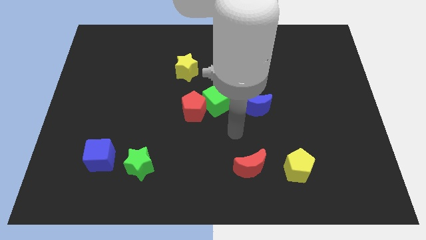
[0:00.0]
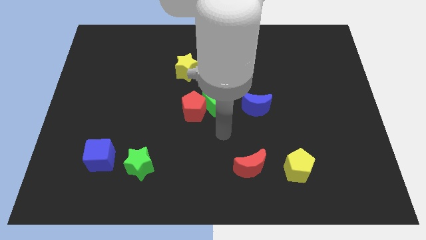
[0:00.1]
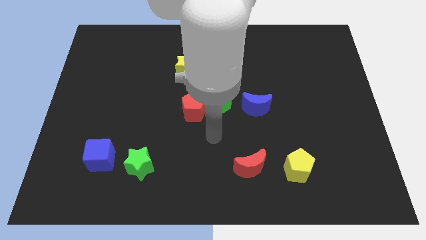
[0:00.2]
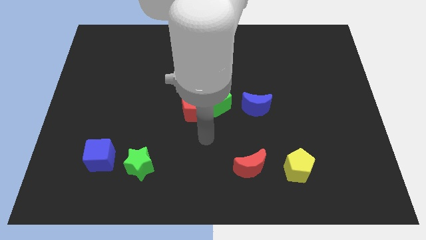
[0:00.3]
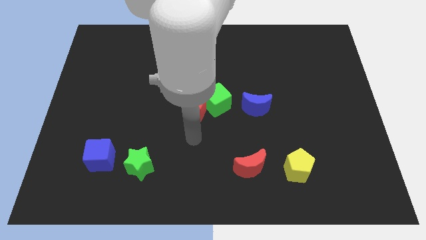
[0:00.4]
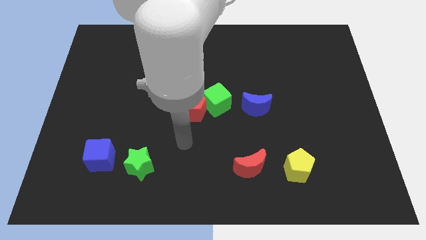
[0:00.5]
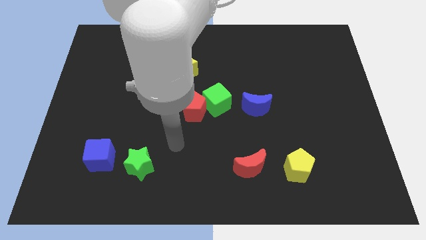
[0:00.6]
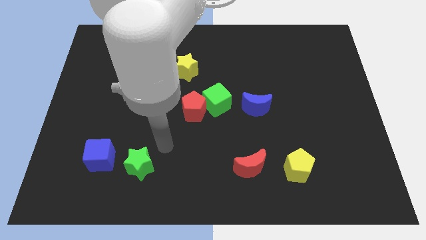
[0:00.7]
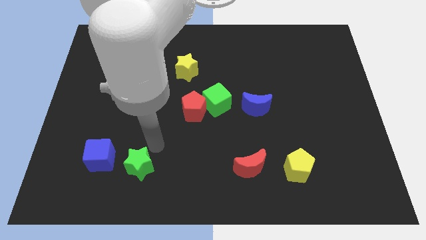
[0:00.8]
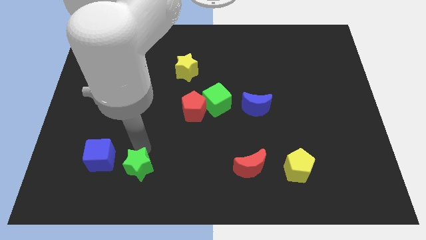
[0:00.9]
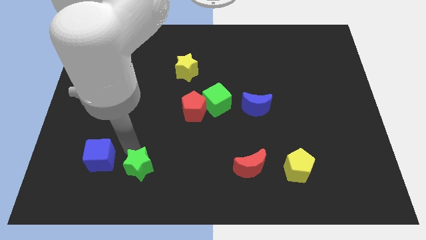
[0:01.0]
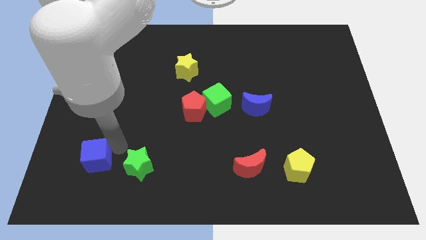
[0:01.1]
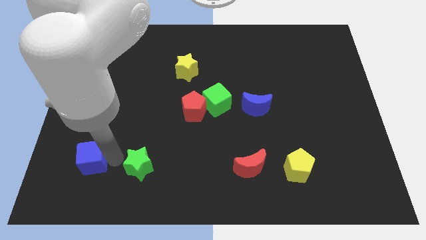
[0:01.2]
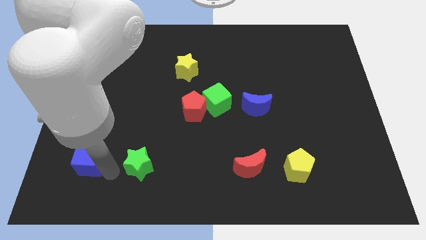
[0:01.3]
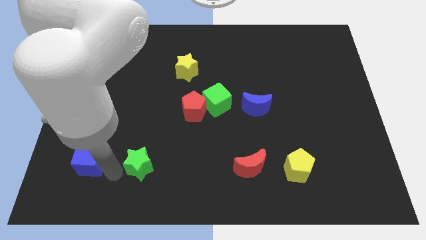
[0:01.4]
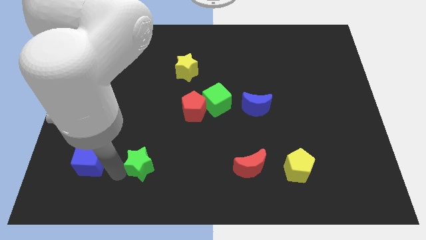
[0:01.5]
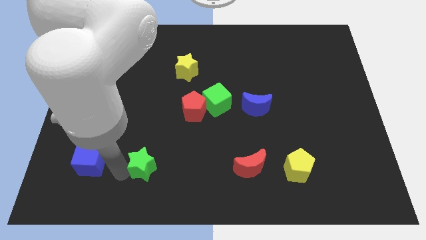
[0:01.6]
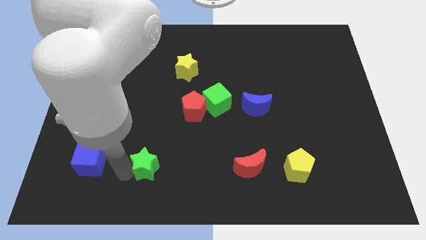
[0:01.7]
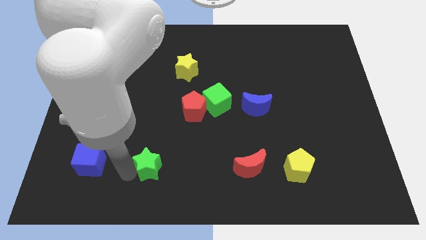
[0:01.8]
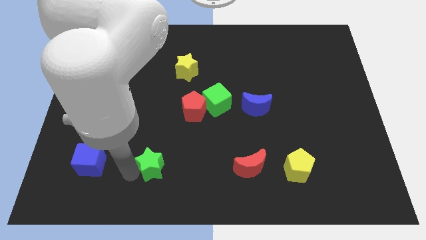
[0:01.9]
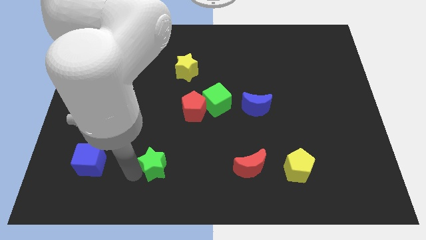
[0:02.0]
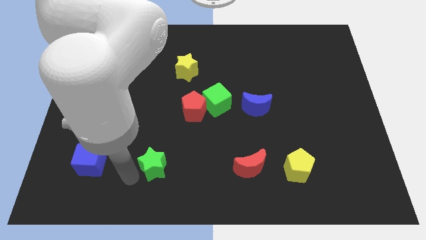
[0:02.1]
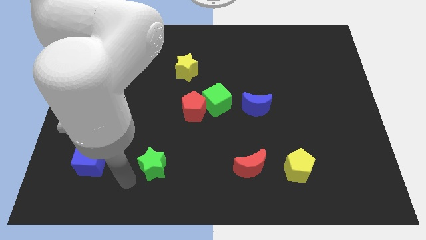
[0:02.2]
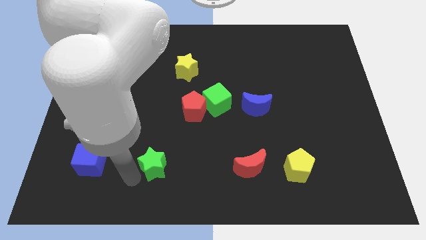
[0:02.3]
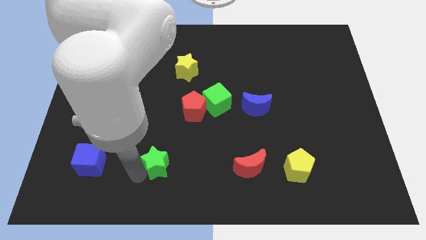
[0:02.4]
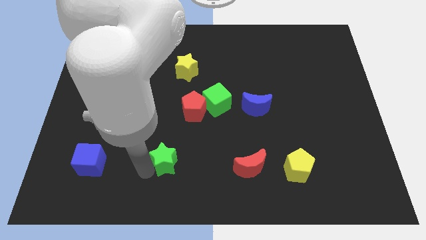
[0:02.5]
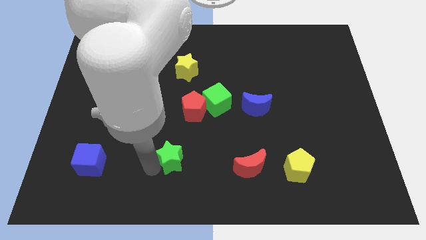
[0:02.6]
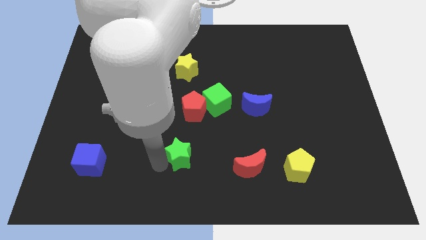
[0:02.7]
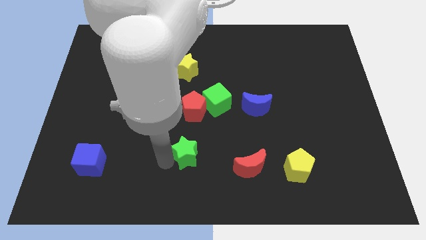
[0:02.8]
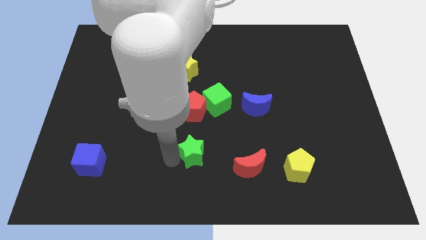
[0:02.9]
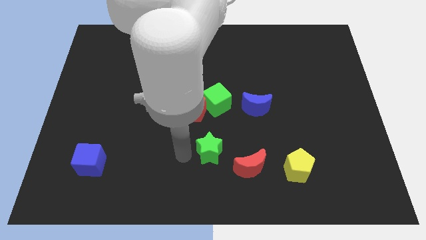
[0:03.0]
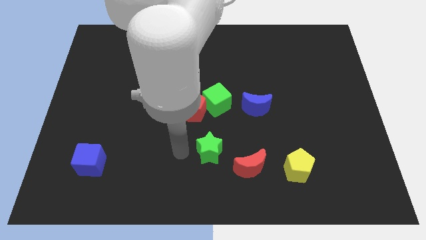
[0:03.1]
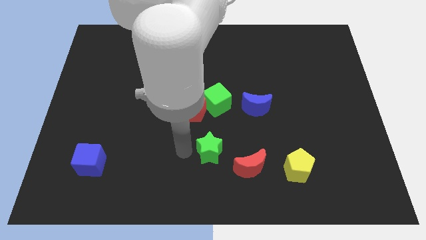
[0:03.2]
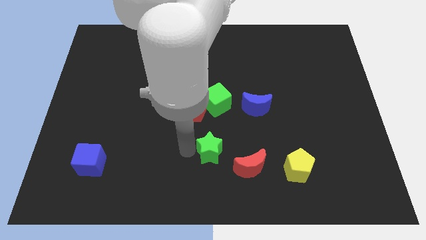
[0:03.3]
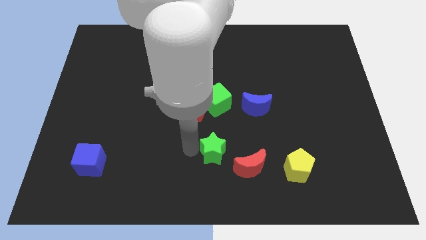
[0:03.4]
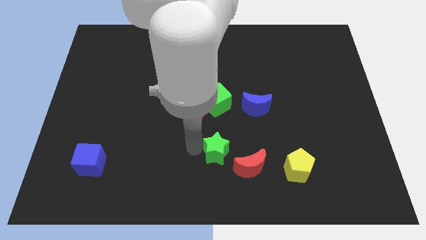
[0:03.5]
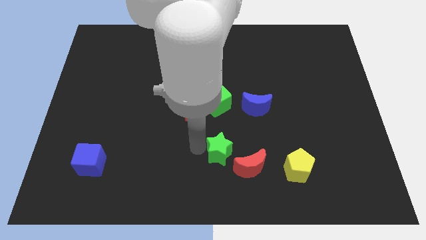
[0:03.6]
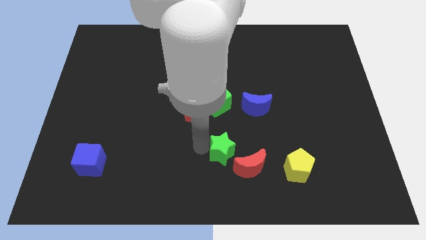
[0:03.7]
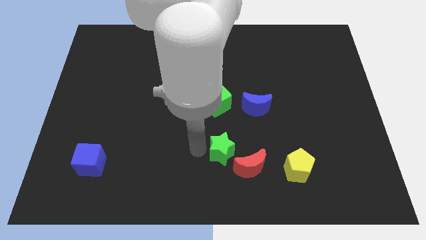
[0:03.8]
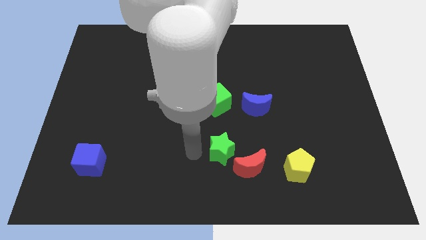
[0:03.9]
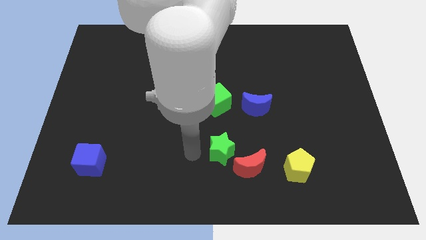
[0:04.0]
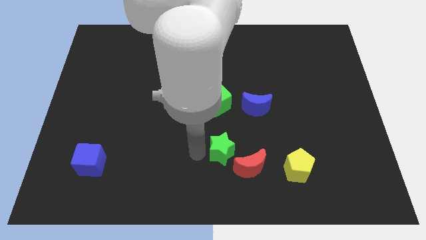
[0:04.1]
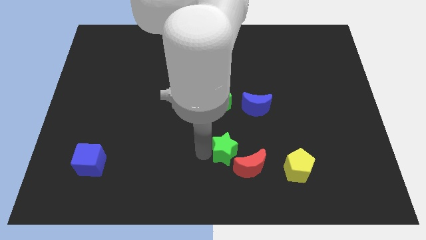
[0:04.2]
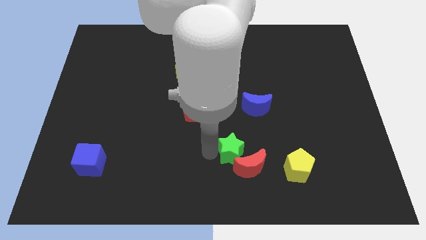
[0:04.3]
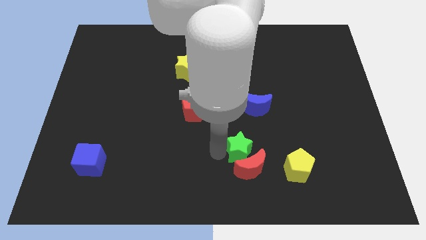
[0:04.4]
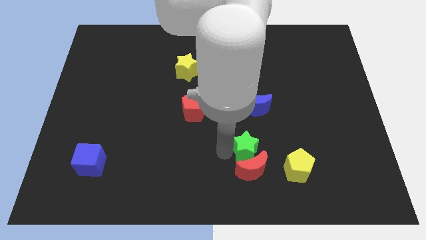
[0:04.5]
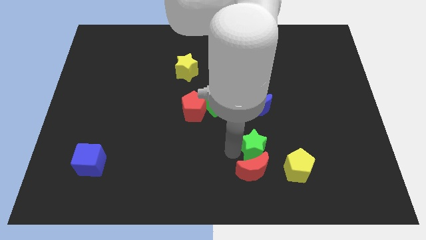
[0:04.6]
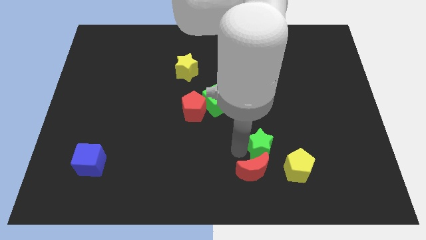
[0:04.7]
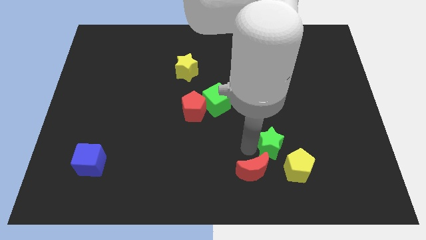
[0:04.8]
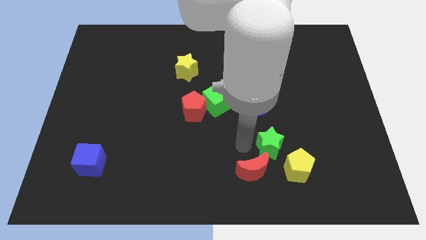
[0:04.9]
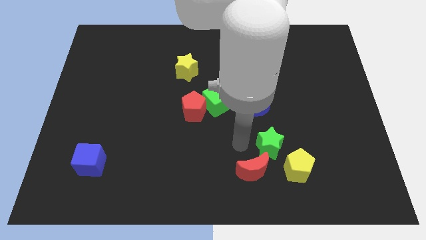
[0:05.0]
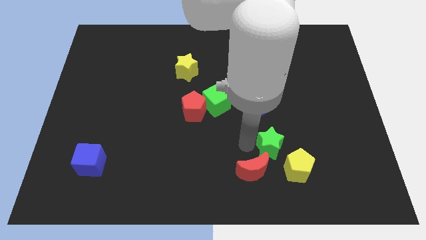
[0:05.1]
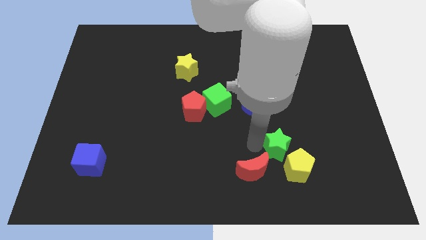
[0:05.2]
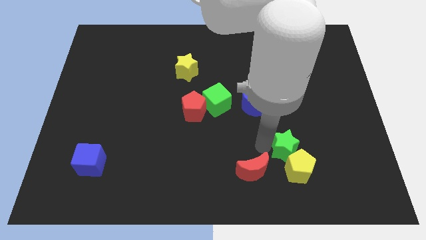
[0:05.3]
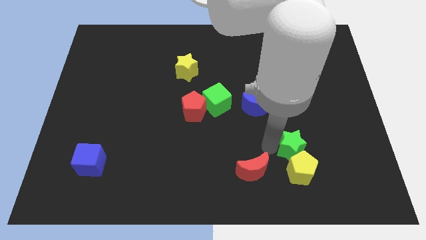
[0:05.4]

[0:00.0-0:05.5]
slide the green star to the top right side of the yellow pentagon

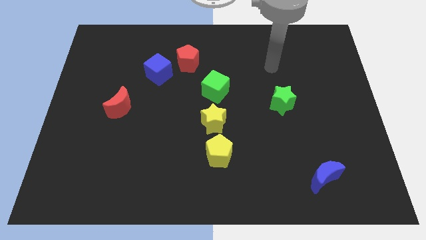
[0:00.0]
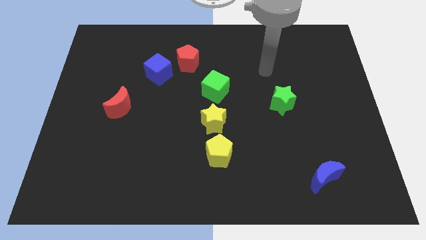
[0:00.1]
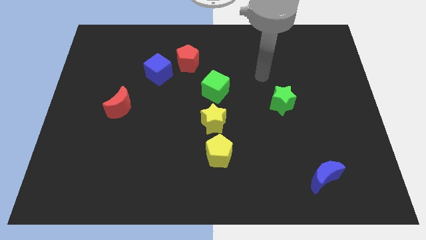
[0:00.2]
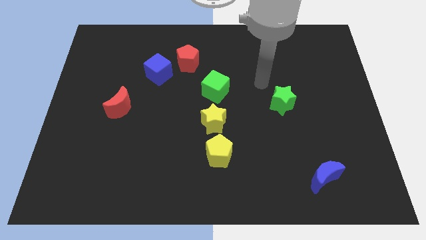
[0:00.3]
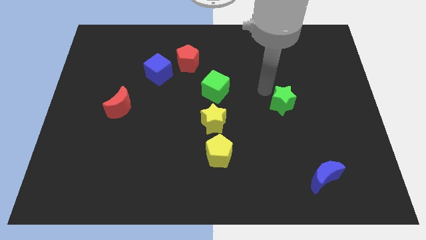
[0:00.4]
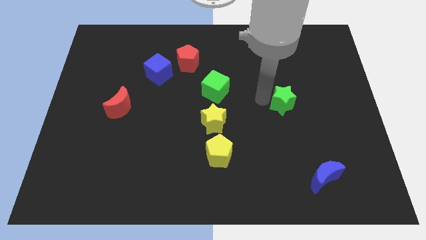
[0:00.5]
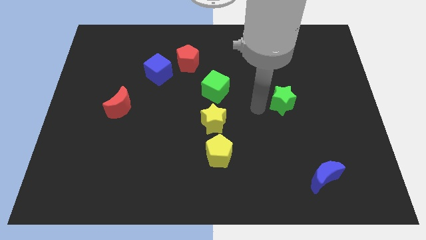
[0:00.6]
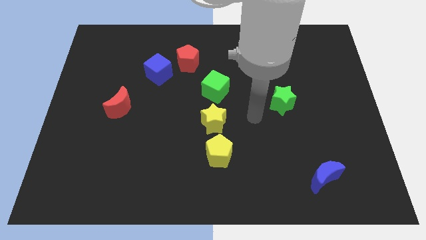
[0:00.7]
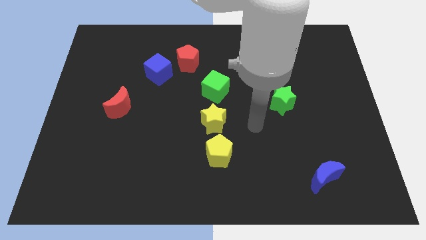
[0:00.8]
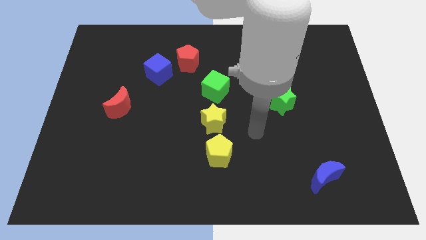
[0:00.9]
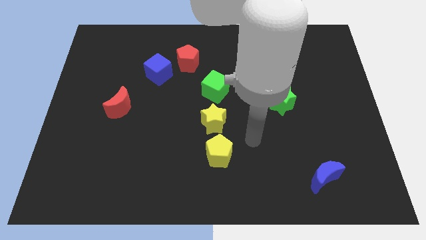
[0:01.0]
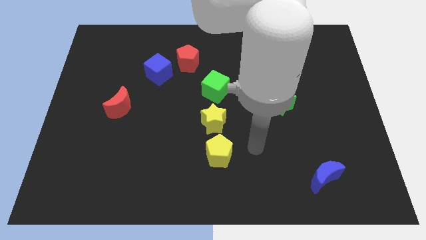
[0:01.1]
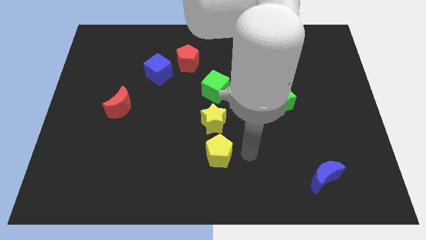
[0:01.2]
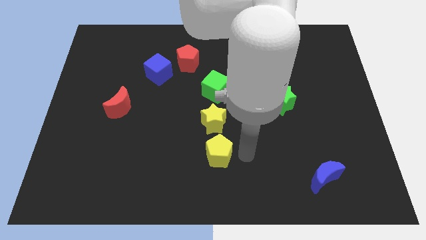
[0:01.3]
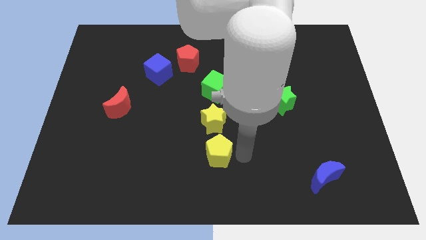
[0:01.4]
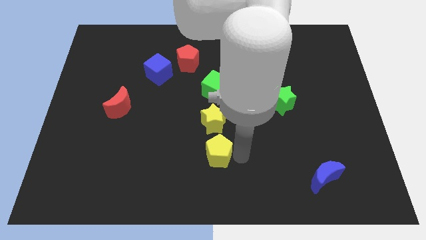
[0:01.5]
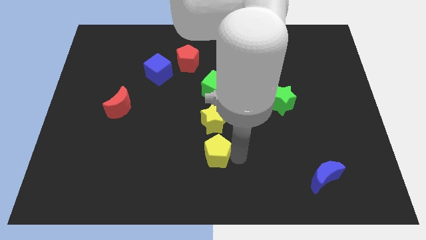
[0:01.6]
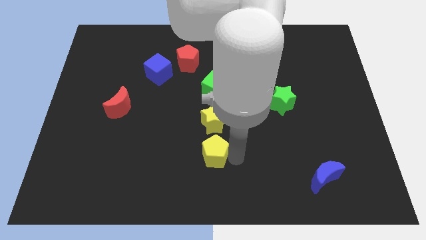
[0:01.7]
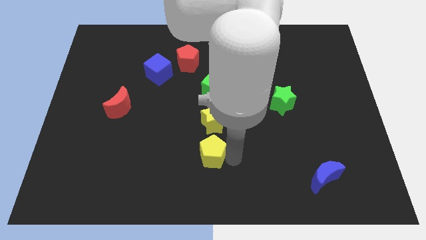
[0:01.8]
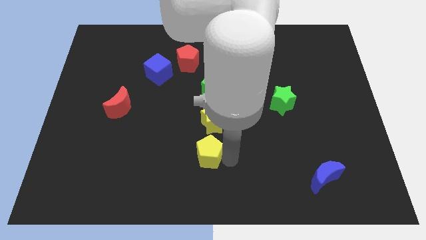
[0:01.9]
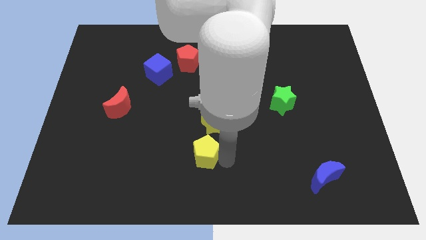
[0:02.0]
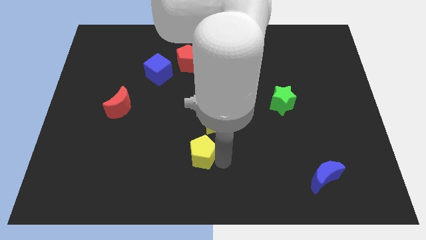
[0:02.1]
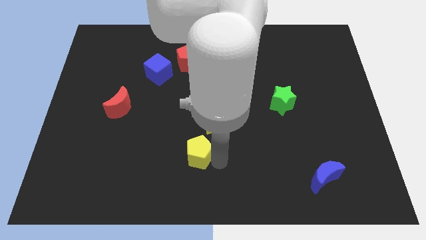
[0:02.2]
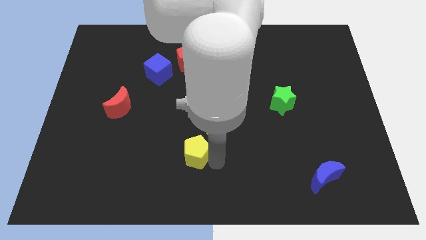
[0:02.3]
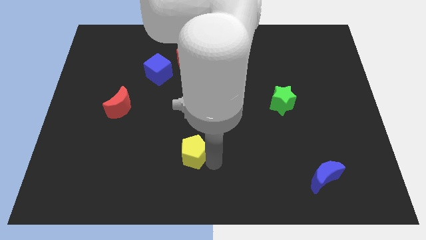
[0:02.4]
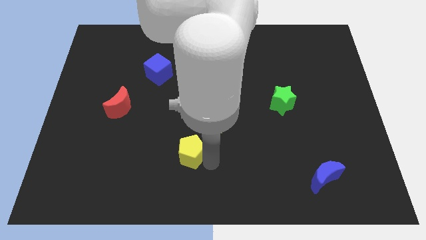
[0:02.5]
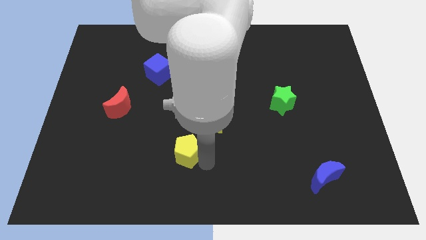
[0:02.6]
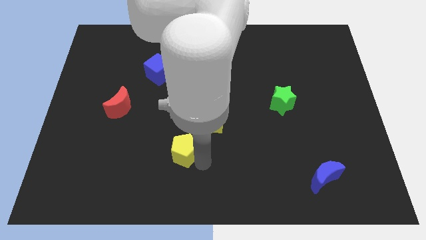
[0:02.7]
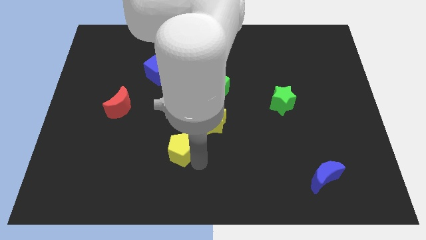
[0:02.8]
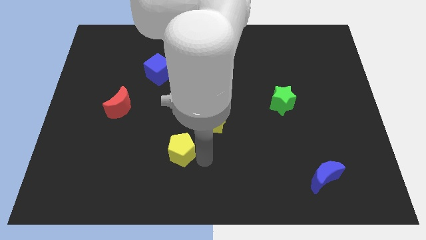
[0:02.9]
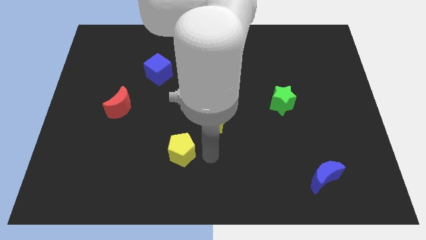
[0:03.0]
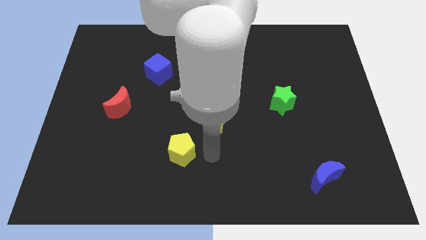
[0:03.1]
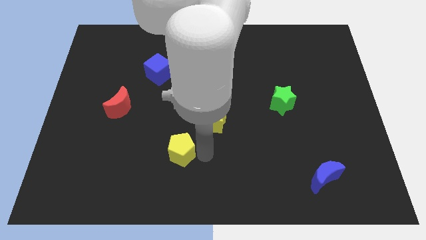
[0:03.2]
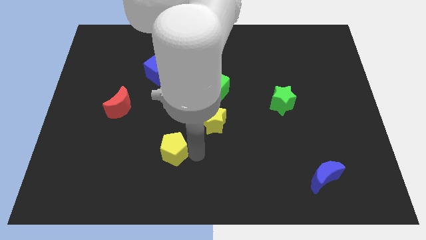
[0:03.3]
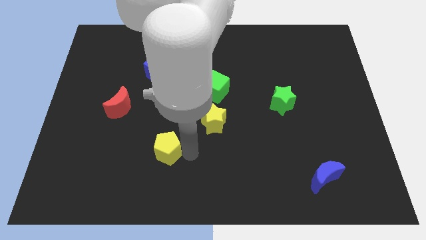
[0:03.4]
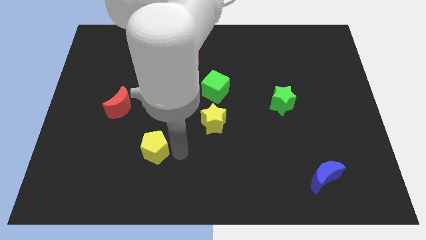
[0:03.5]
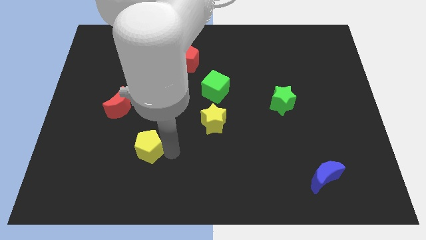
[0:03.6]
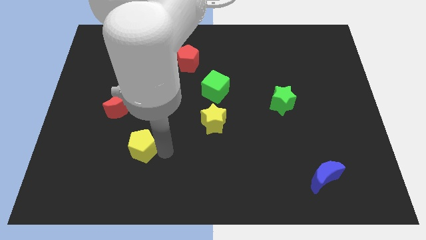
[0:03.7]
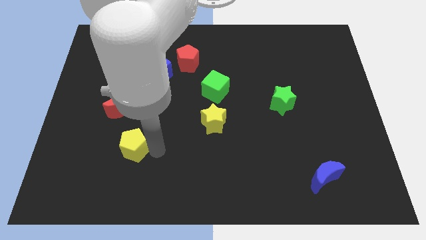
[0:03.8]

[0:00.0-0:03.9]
put the yellow pentagon below the red moon
